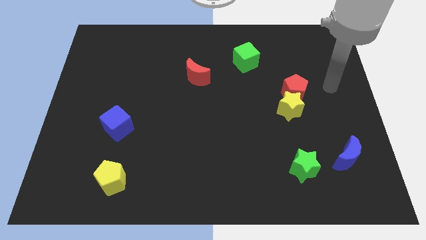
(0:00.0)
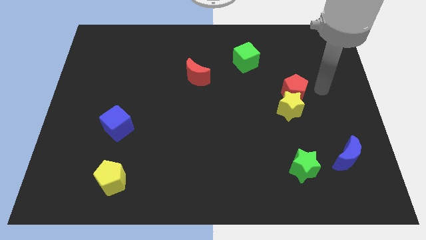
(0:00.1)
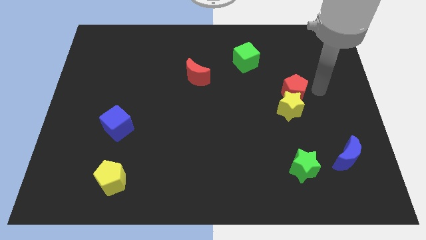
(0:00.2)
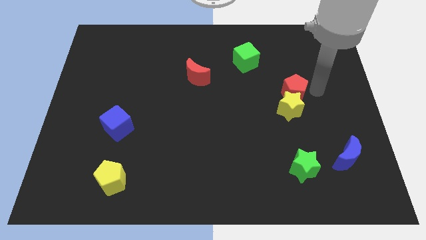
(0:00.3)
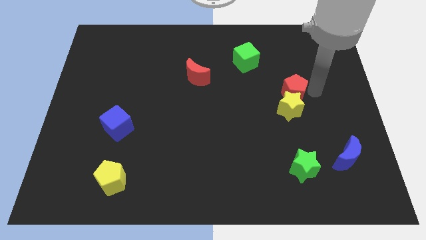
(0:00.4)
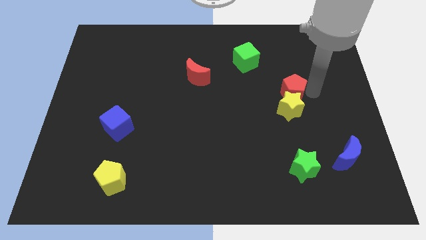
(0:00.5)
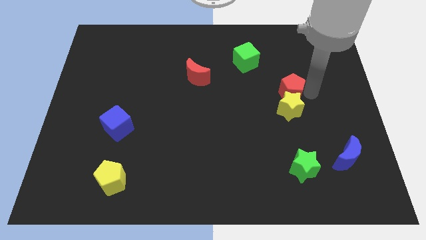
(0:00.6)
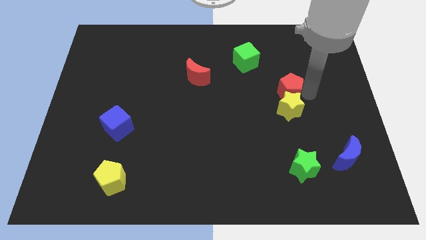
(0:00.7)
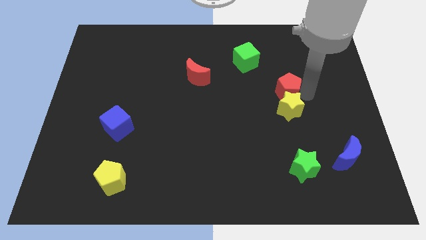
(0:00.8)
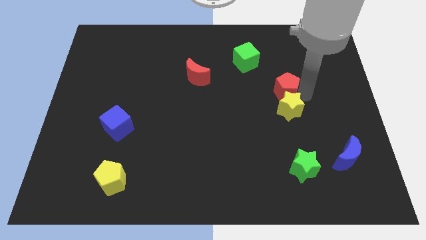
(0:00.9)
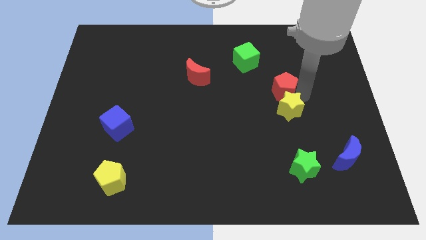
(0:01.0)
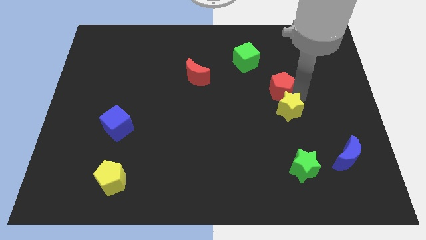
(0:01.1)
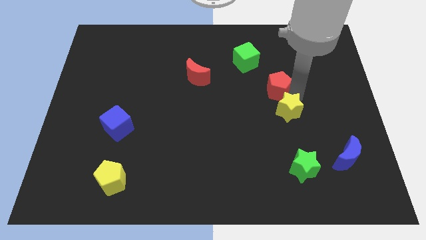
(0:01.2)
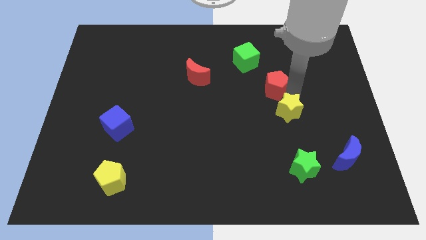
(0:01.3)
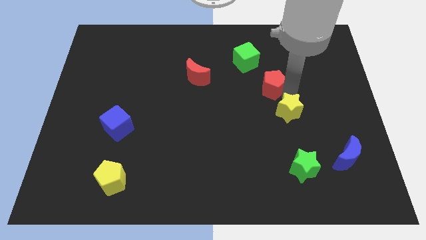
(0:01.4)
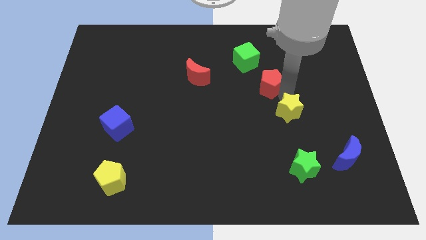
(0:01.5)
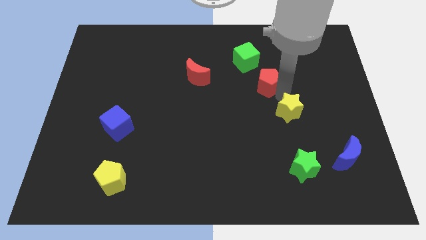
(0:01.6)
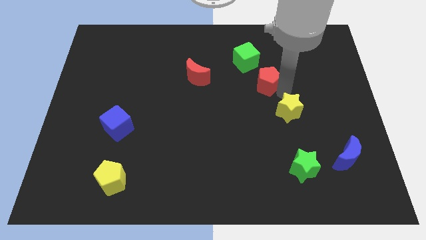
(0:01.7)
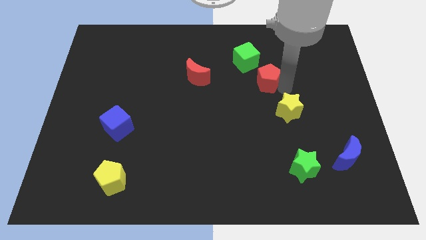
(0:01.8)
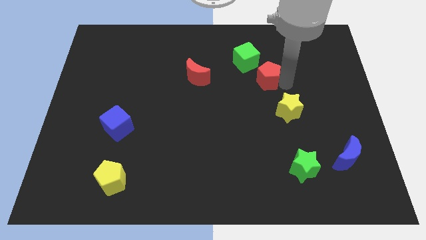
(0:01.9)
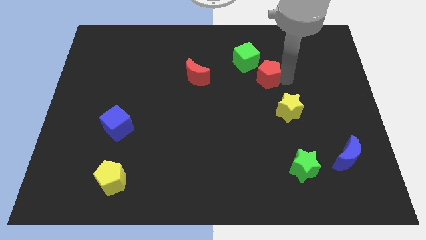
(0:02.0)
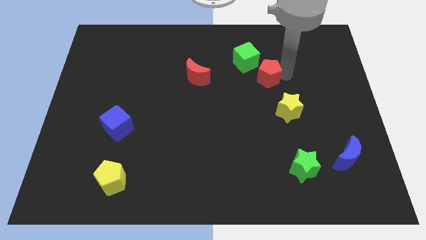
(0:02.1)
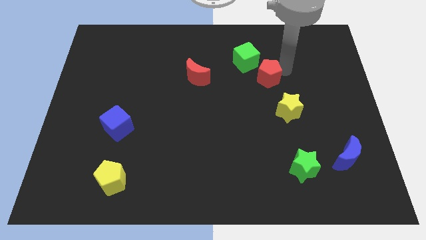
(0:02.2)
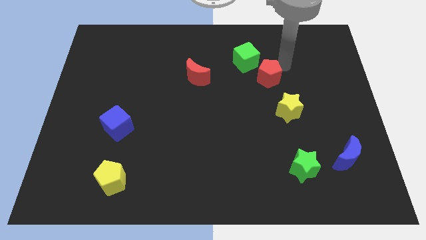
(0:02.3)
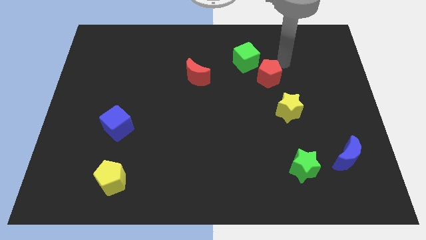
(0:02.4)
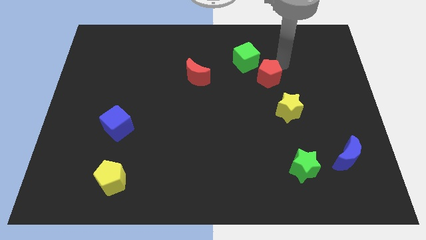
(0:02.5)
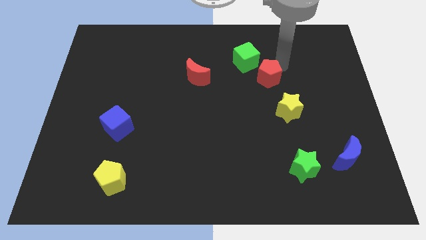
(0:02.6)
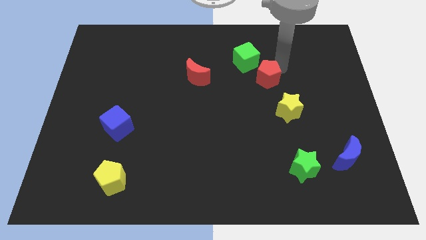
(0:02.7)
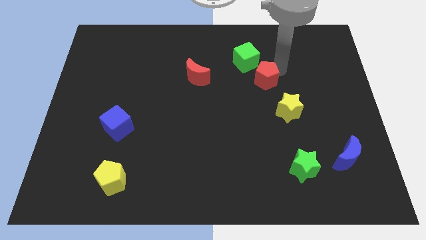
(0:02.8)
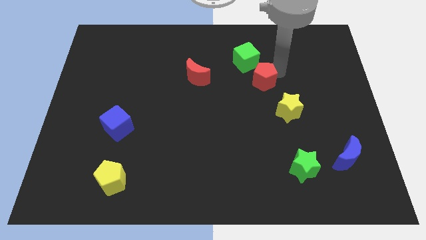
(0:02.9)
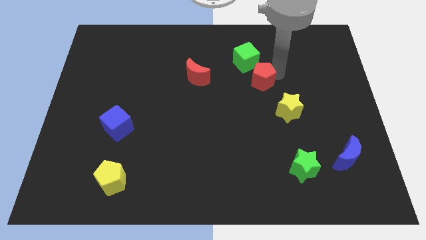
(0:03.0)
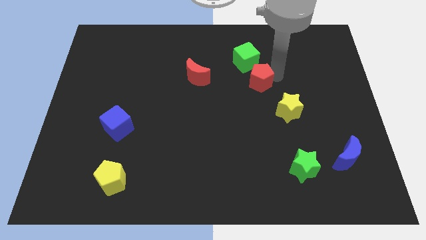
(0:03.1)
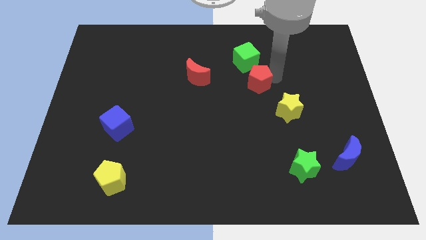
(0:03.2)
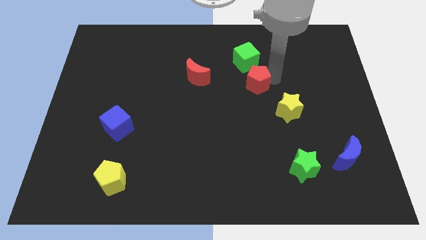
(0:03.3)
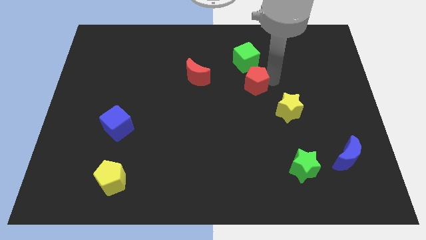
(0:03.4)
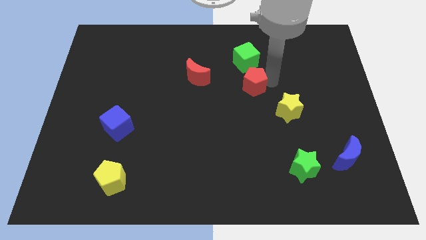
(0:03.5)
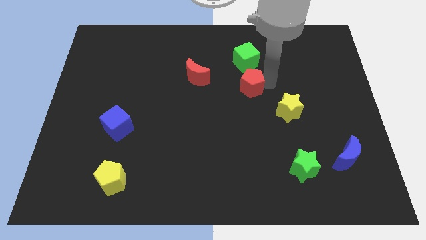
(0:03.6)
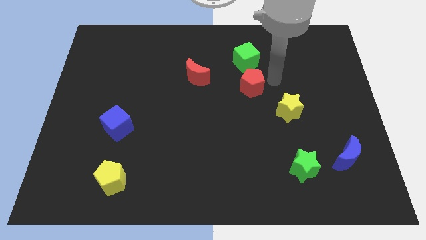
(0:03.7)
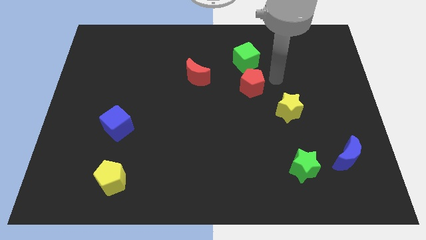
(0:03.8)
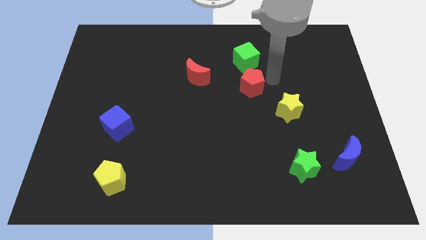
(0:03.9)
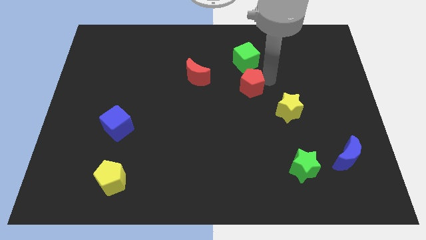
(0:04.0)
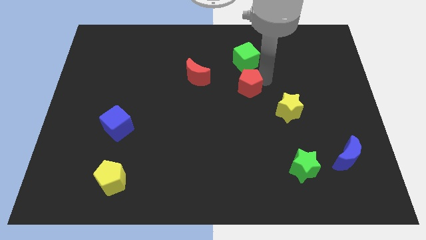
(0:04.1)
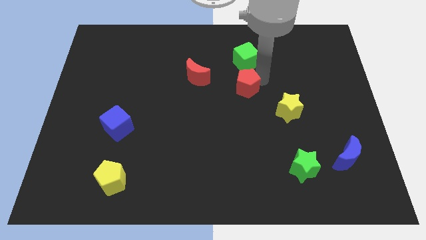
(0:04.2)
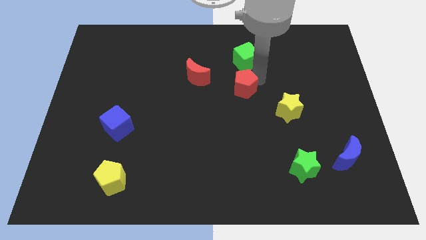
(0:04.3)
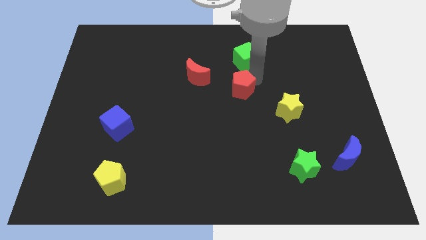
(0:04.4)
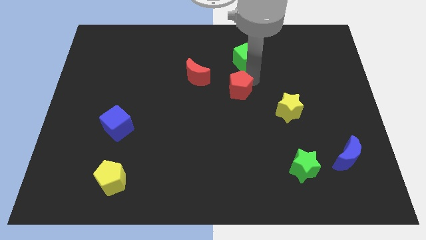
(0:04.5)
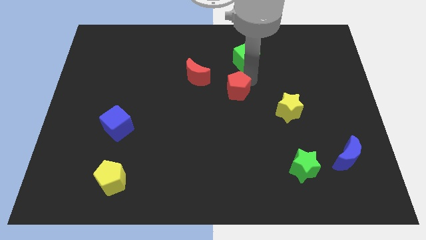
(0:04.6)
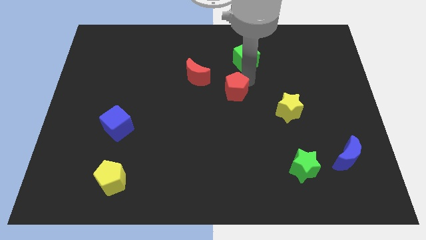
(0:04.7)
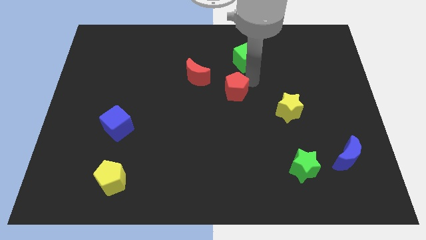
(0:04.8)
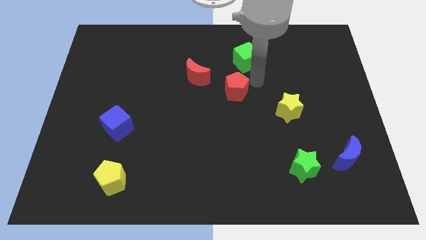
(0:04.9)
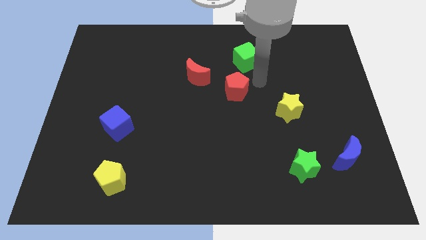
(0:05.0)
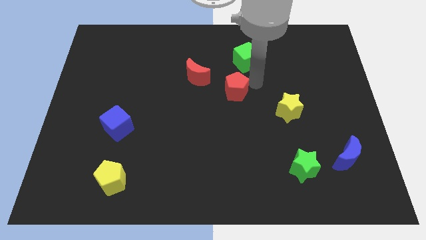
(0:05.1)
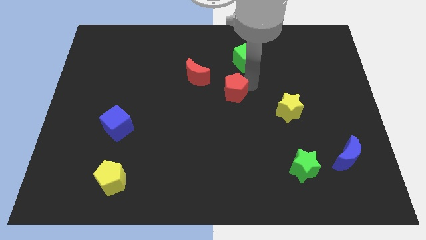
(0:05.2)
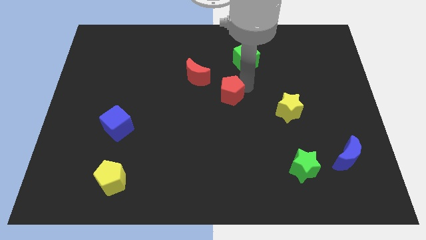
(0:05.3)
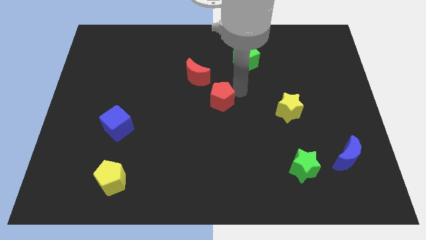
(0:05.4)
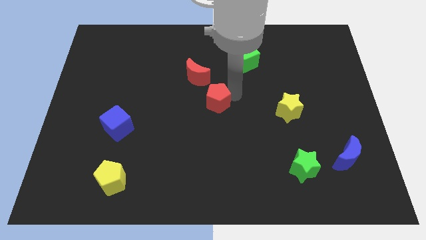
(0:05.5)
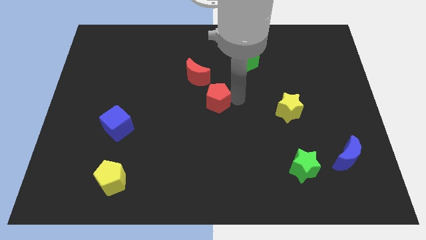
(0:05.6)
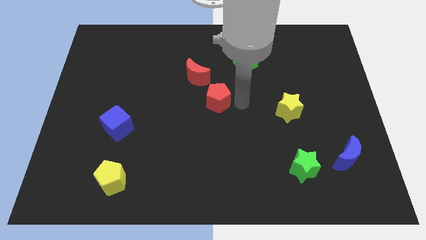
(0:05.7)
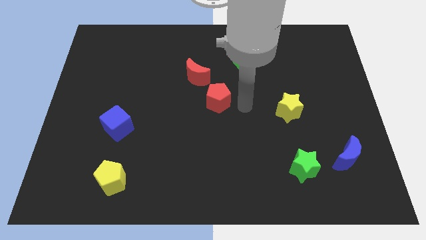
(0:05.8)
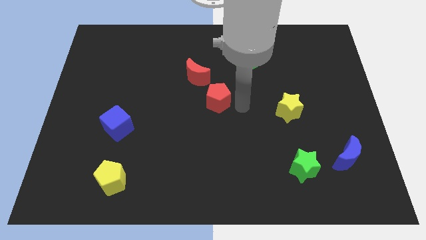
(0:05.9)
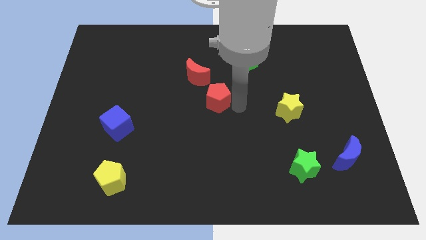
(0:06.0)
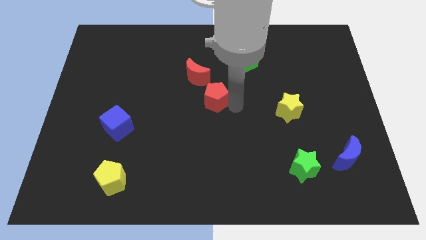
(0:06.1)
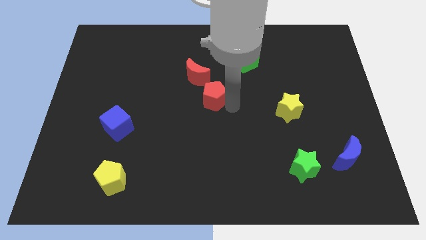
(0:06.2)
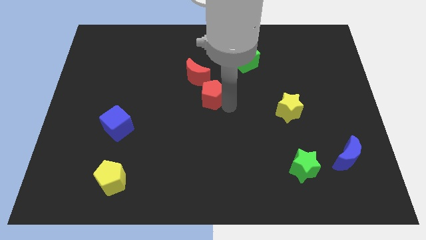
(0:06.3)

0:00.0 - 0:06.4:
push the red pentagon left

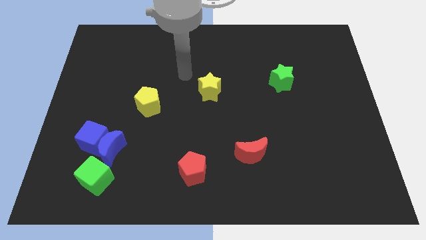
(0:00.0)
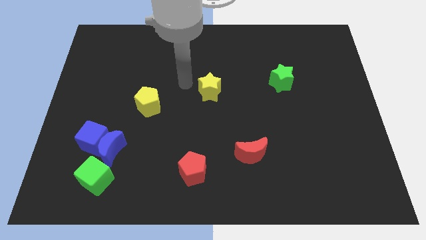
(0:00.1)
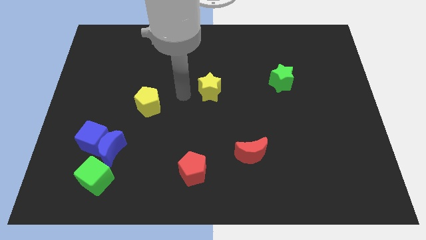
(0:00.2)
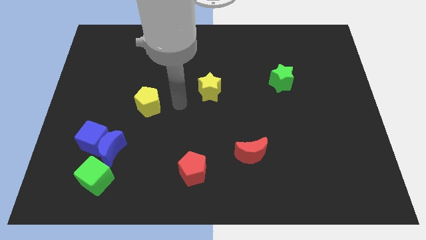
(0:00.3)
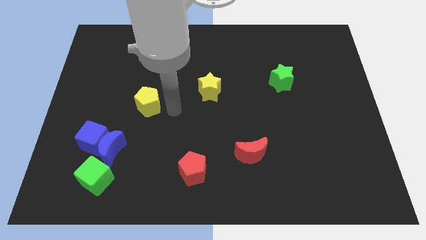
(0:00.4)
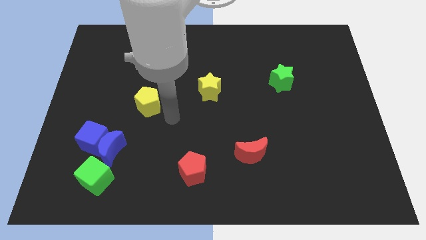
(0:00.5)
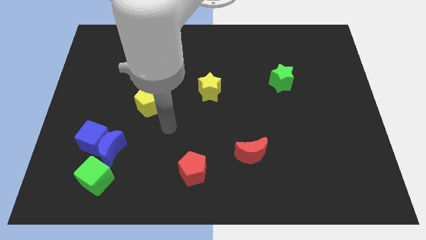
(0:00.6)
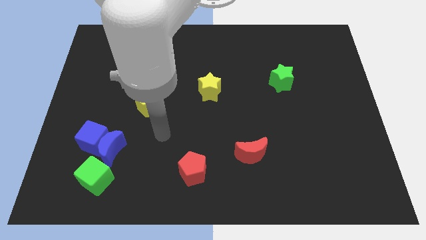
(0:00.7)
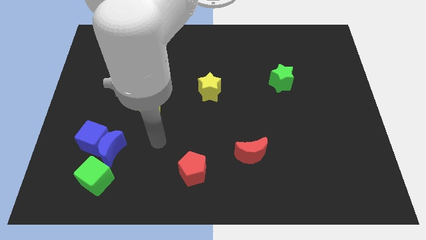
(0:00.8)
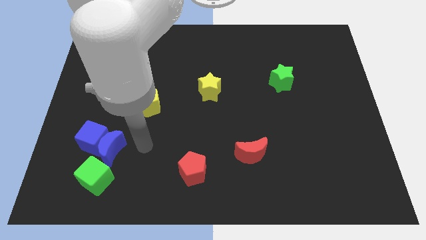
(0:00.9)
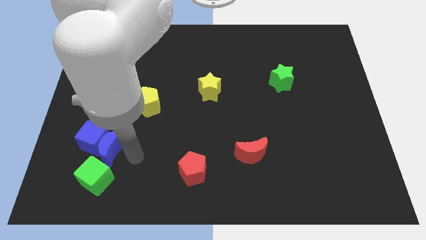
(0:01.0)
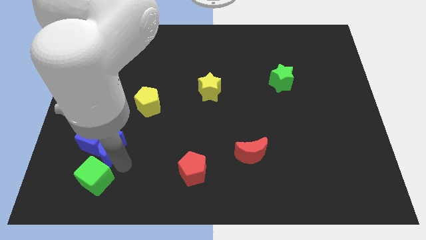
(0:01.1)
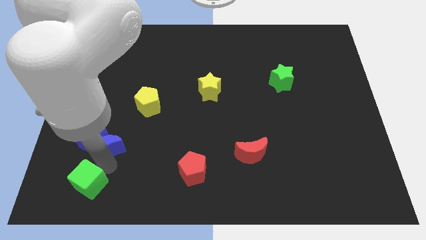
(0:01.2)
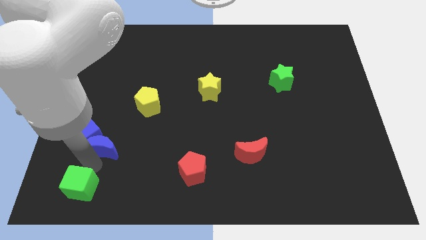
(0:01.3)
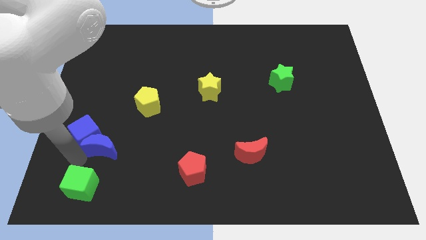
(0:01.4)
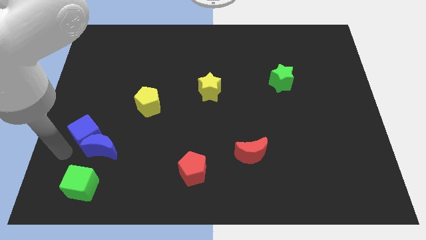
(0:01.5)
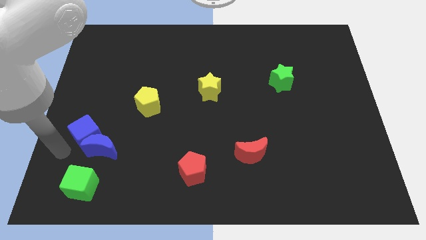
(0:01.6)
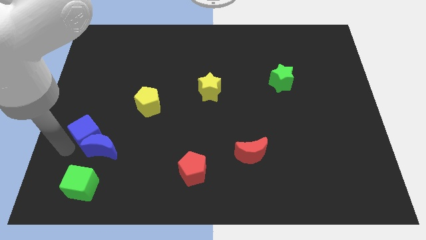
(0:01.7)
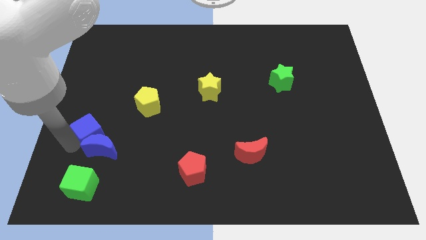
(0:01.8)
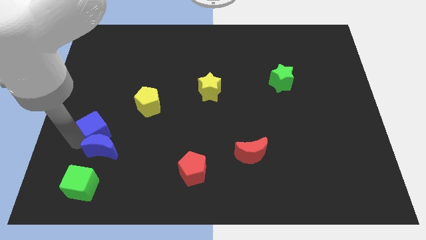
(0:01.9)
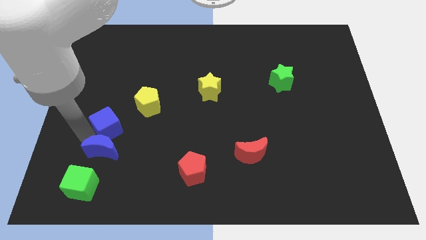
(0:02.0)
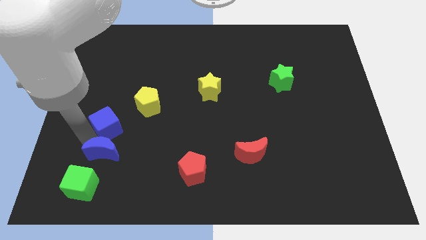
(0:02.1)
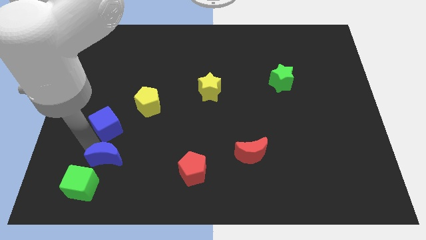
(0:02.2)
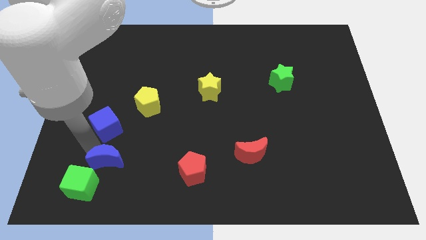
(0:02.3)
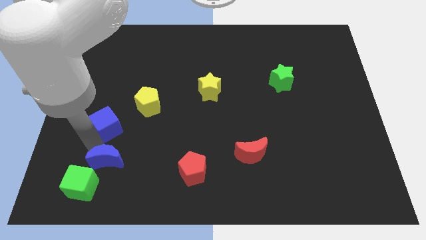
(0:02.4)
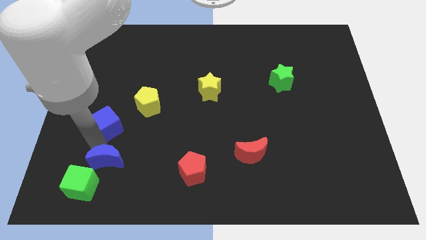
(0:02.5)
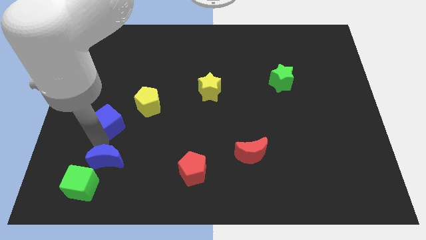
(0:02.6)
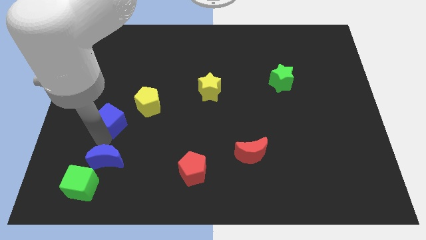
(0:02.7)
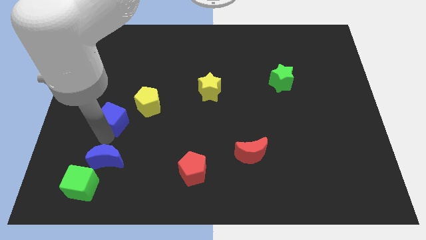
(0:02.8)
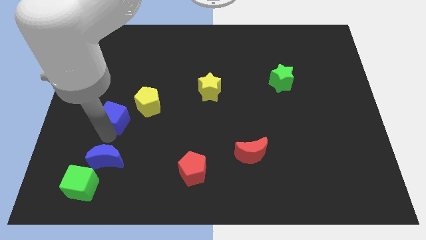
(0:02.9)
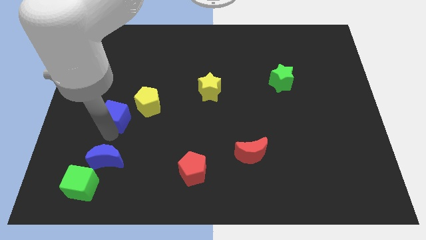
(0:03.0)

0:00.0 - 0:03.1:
slide the blue cube a bit diagonally upwards and right
